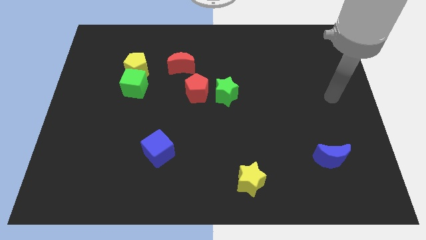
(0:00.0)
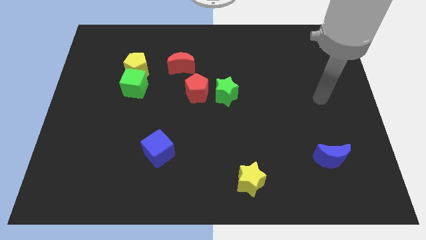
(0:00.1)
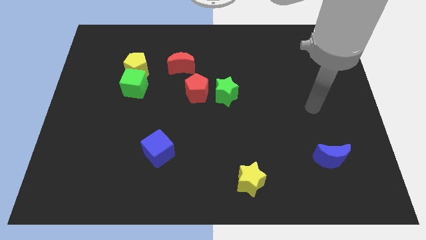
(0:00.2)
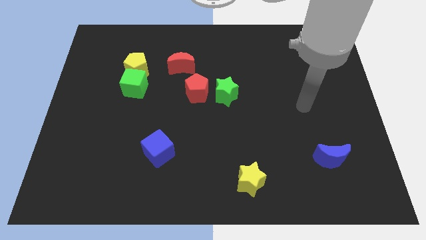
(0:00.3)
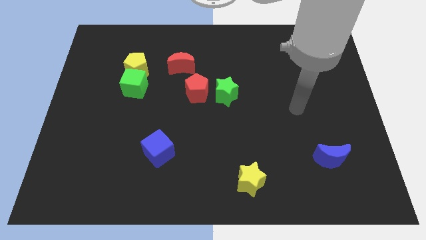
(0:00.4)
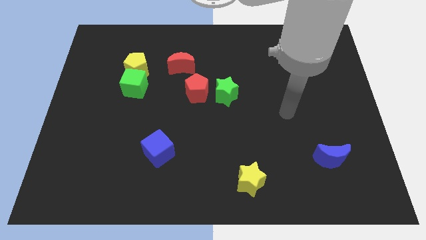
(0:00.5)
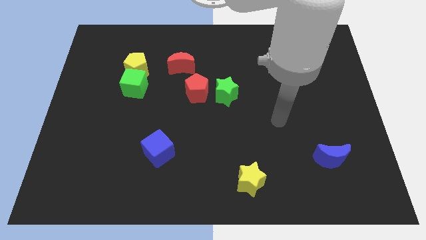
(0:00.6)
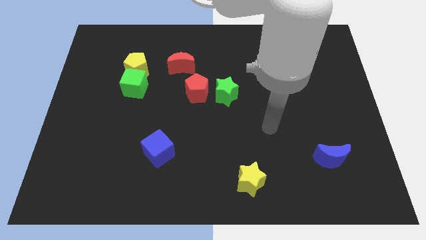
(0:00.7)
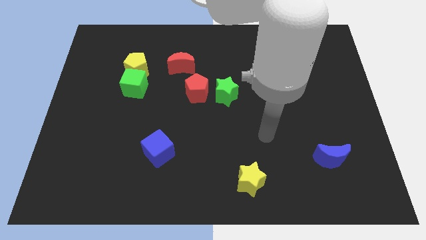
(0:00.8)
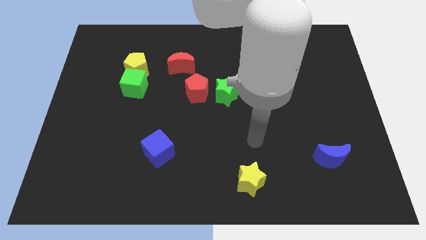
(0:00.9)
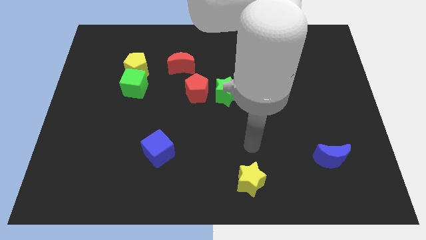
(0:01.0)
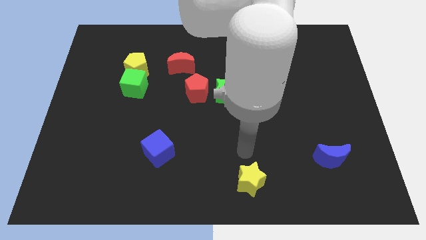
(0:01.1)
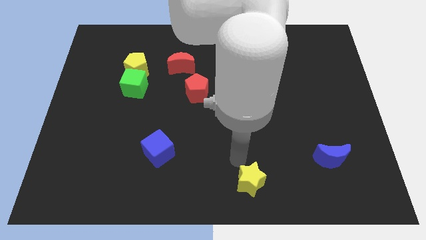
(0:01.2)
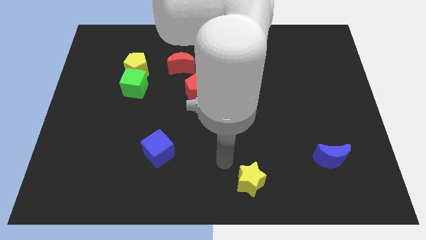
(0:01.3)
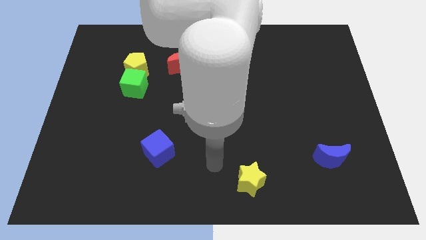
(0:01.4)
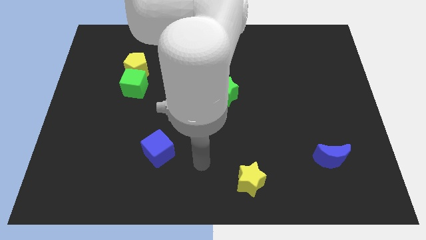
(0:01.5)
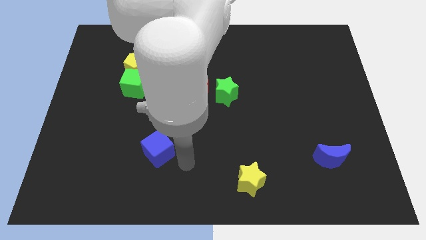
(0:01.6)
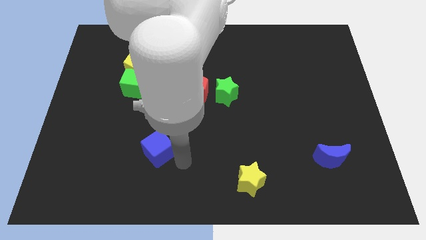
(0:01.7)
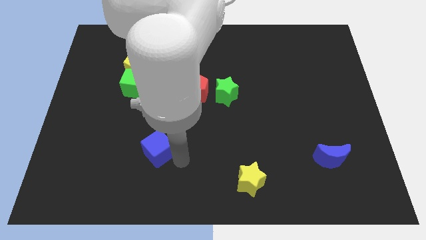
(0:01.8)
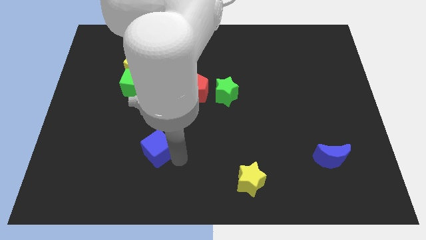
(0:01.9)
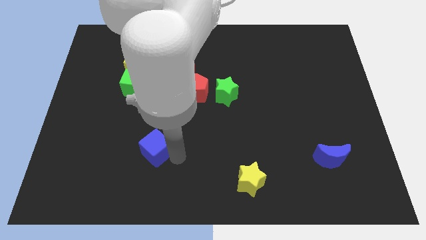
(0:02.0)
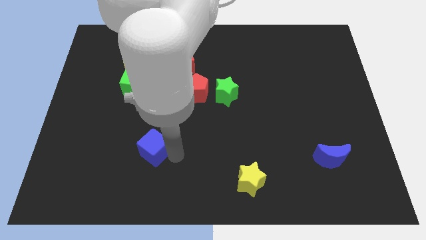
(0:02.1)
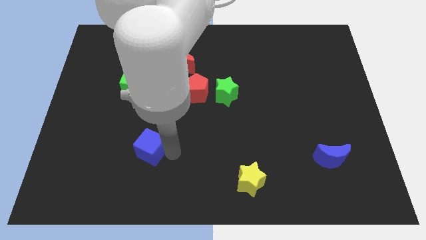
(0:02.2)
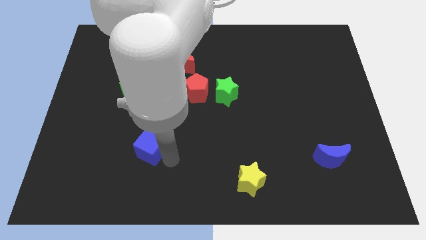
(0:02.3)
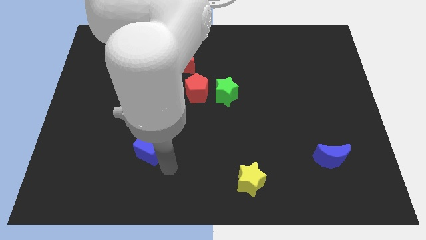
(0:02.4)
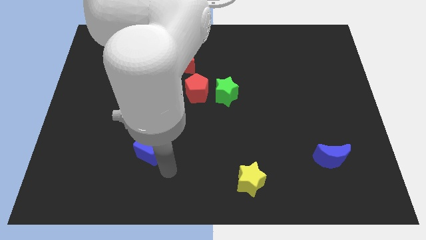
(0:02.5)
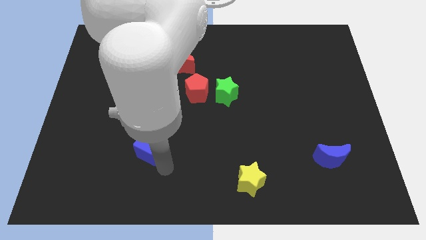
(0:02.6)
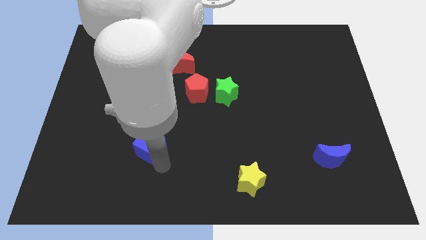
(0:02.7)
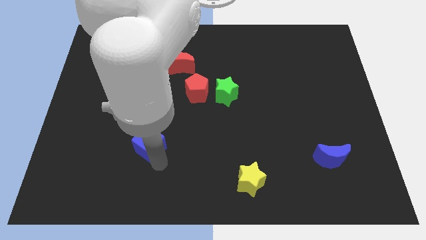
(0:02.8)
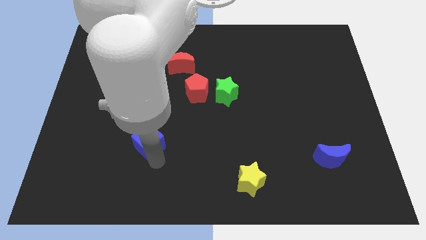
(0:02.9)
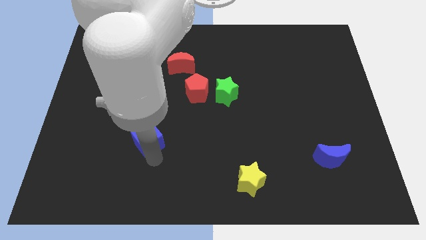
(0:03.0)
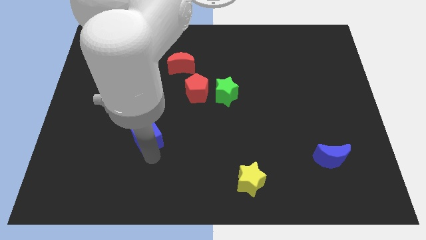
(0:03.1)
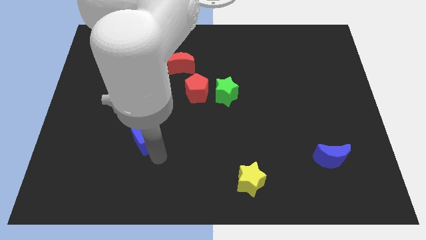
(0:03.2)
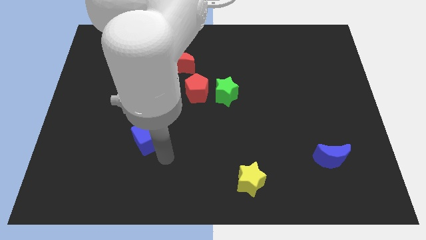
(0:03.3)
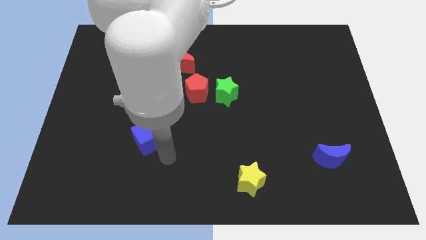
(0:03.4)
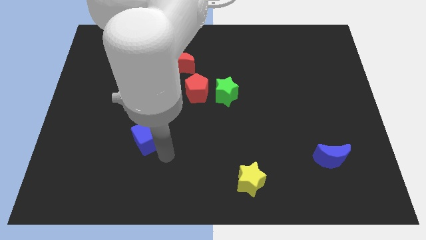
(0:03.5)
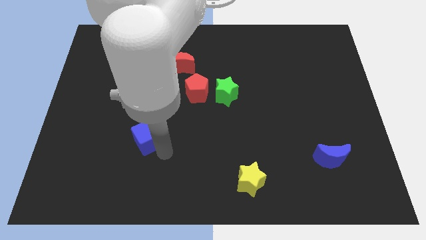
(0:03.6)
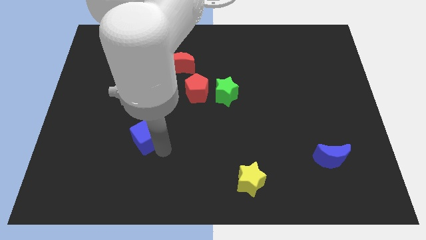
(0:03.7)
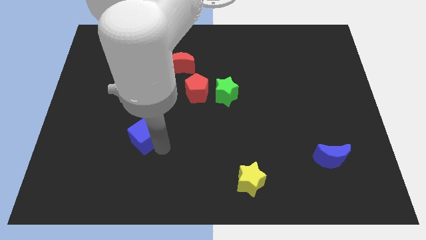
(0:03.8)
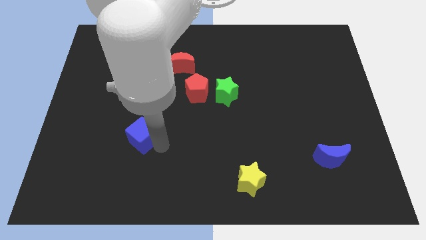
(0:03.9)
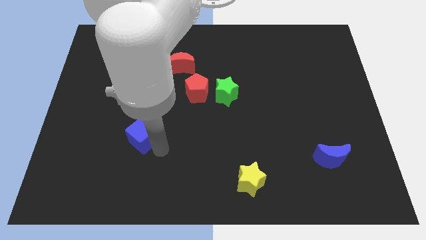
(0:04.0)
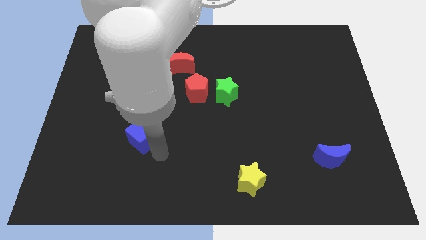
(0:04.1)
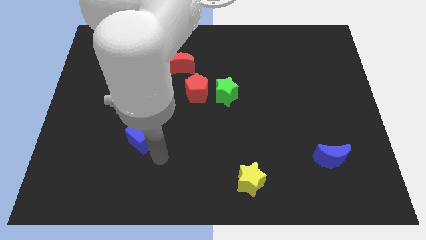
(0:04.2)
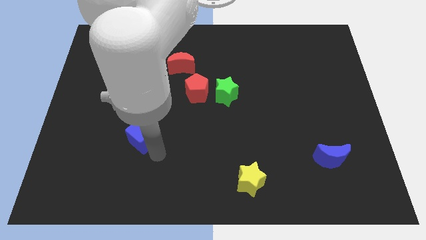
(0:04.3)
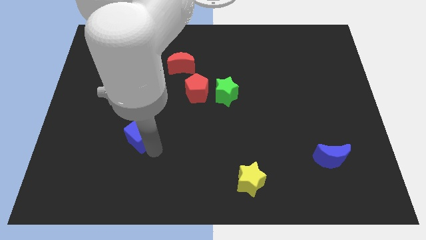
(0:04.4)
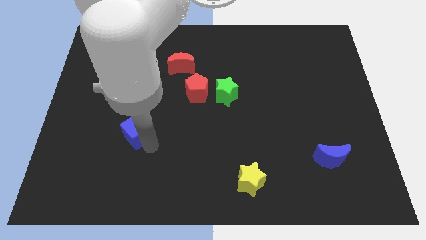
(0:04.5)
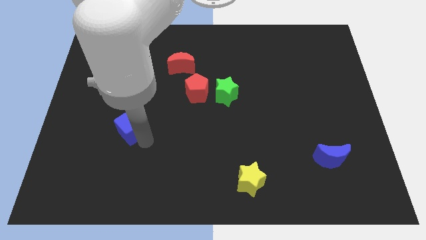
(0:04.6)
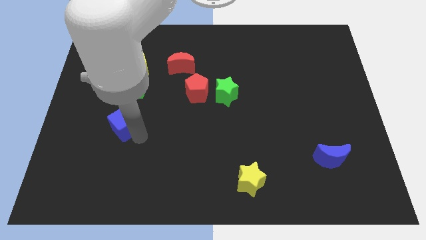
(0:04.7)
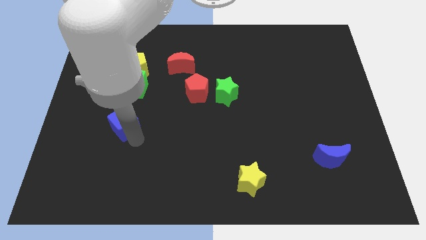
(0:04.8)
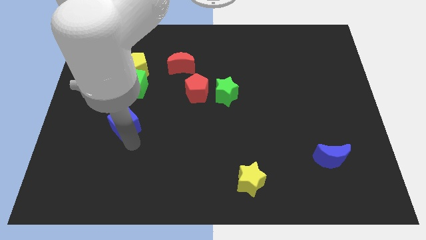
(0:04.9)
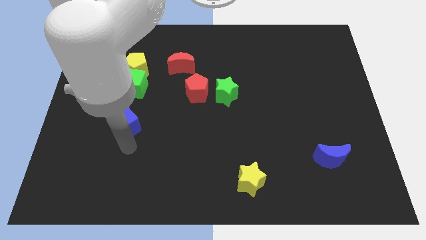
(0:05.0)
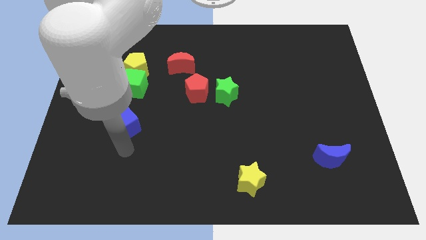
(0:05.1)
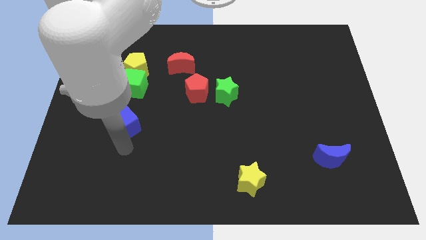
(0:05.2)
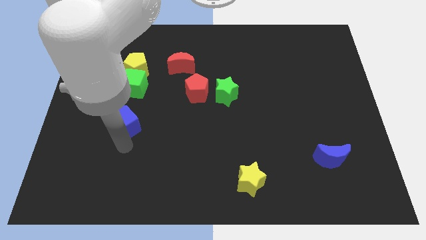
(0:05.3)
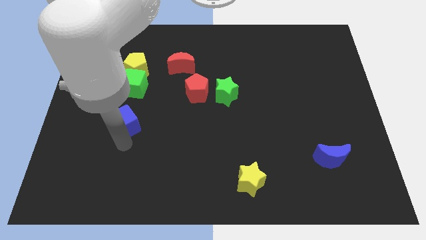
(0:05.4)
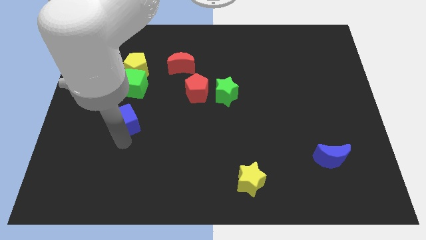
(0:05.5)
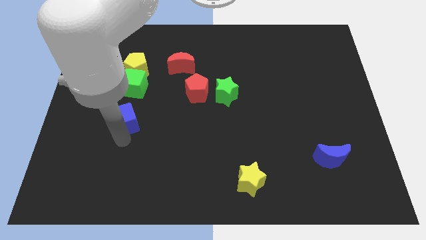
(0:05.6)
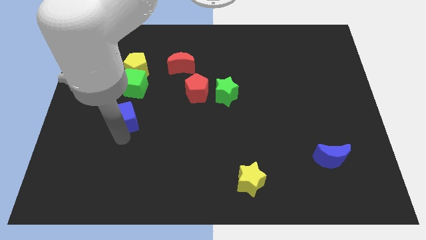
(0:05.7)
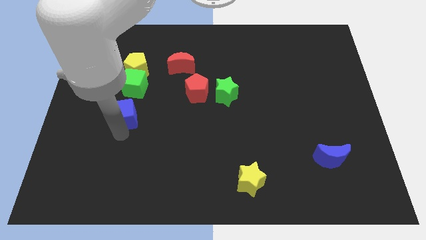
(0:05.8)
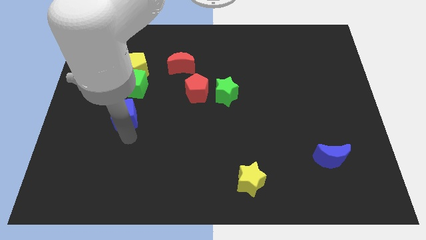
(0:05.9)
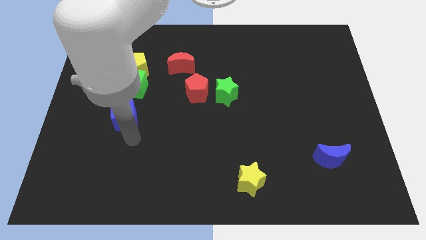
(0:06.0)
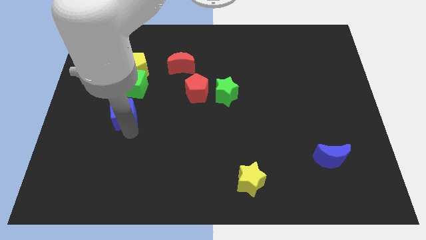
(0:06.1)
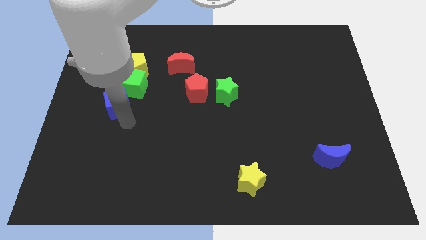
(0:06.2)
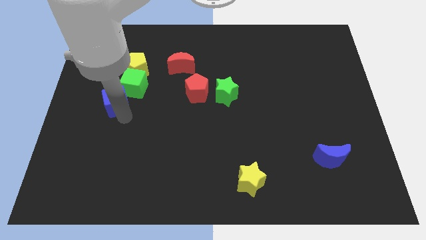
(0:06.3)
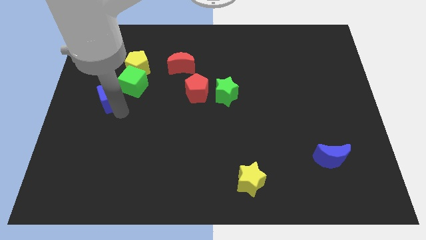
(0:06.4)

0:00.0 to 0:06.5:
slide the blue cube diagonally down and to the left of the yellow pentagon

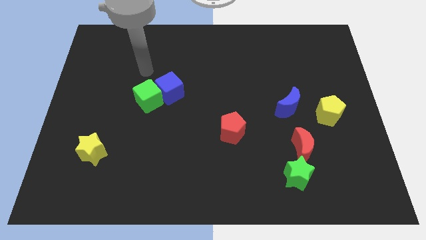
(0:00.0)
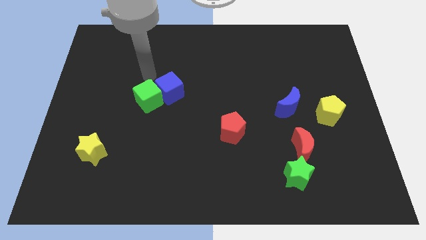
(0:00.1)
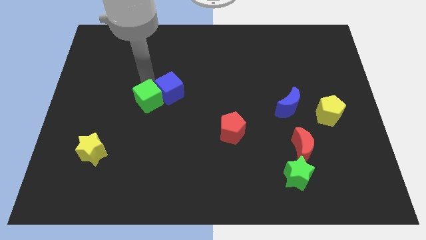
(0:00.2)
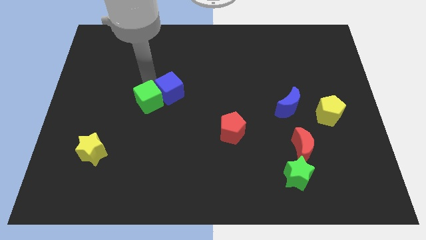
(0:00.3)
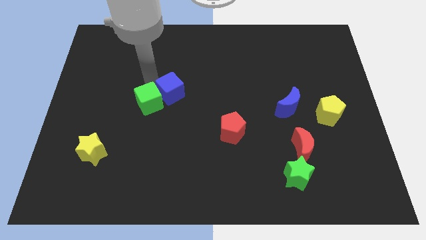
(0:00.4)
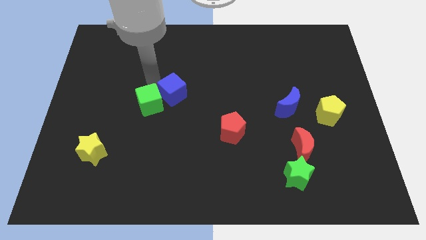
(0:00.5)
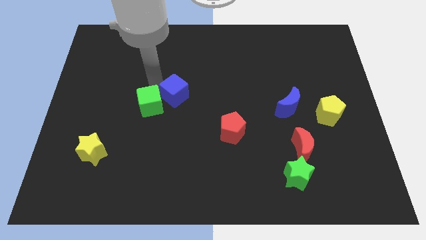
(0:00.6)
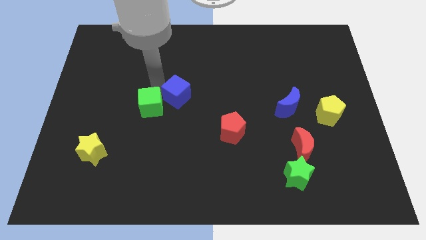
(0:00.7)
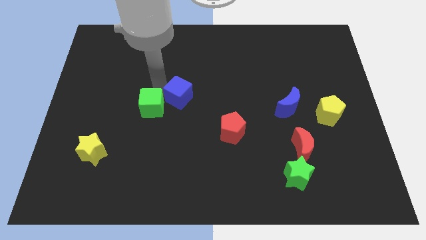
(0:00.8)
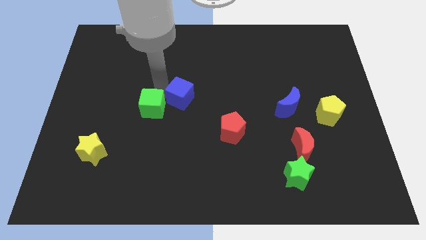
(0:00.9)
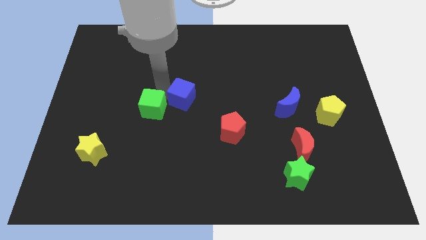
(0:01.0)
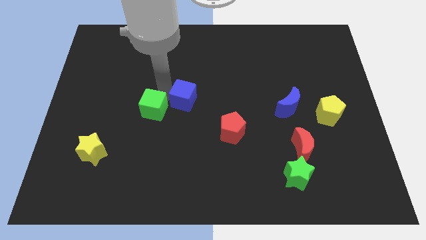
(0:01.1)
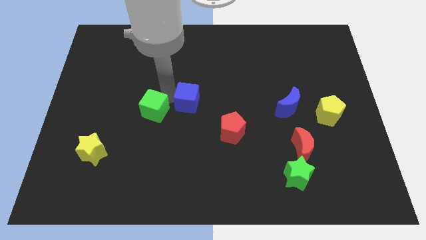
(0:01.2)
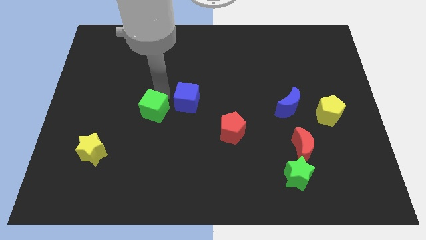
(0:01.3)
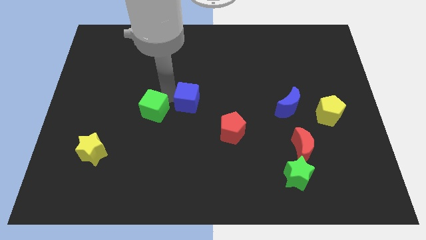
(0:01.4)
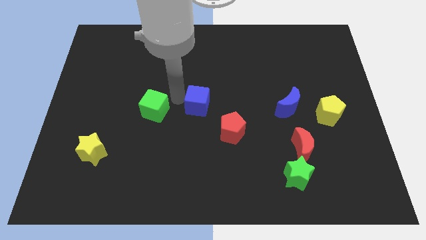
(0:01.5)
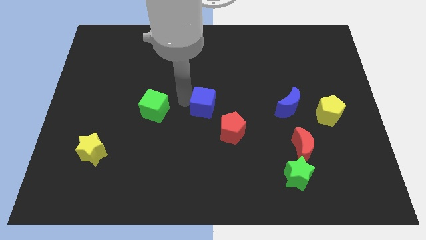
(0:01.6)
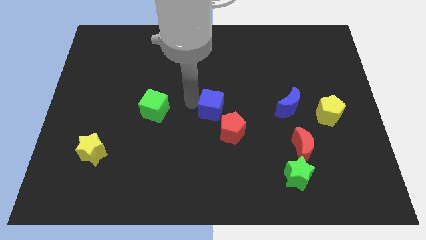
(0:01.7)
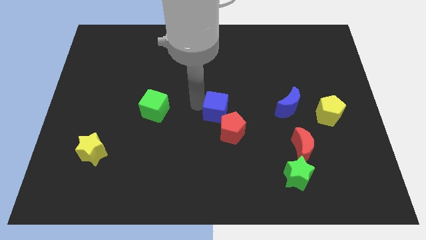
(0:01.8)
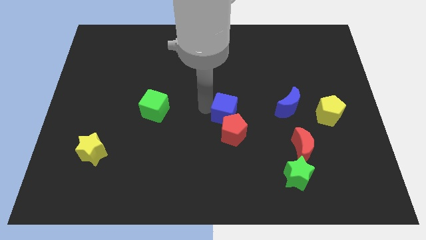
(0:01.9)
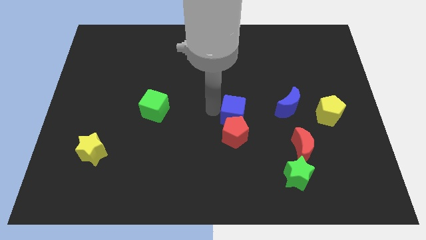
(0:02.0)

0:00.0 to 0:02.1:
push the blue cube to the top right of the red pentagon
